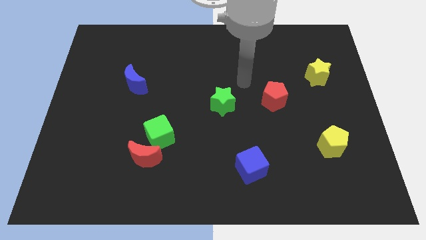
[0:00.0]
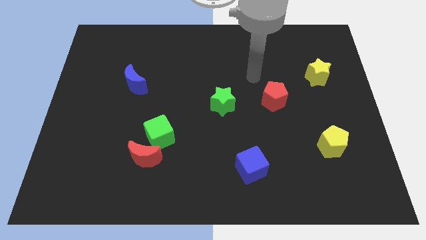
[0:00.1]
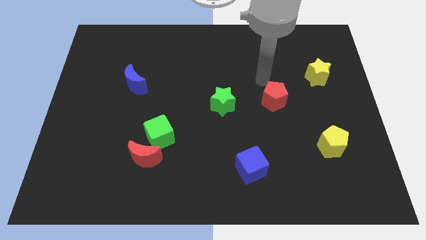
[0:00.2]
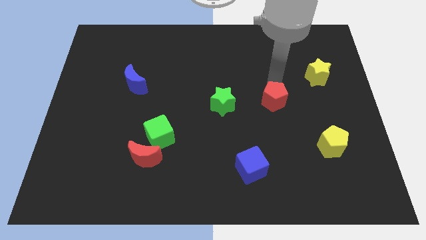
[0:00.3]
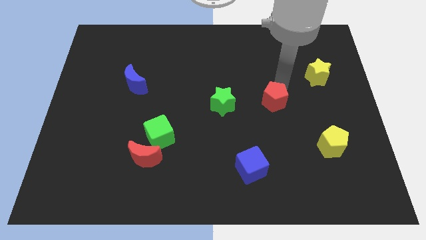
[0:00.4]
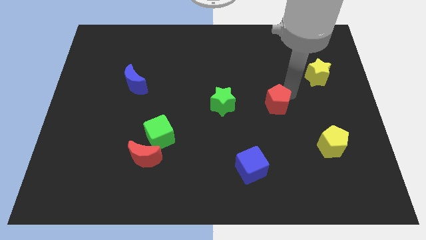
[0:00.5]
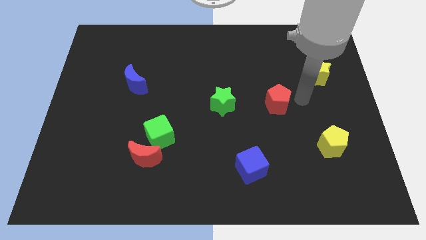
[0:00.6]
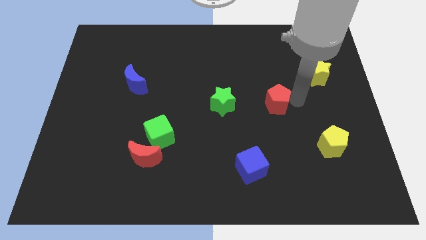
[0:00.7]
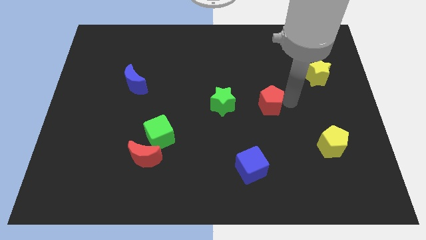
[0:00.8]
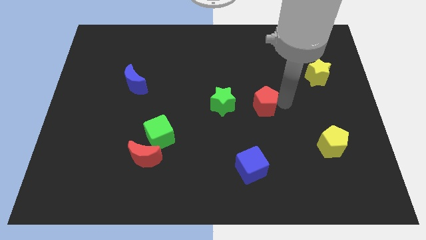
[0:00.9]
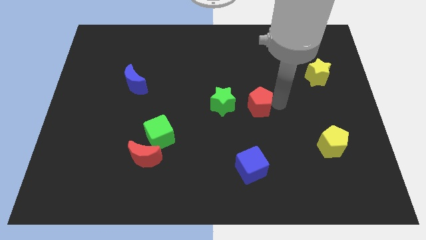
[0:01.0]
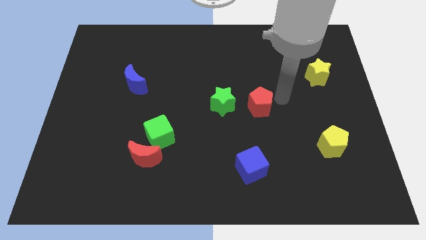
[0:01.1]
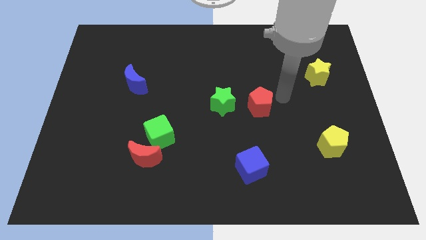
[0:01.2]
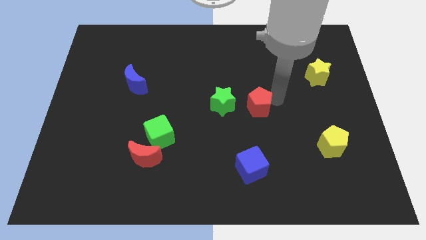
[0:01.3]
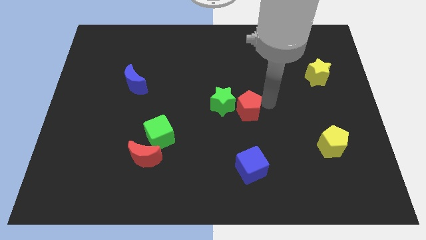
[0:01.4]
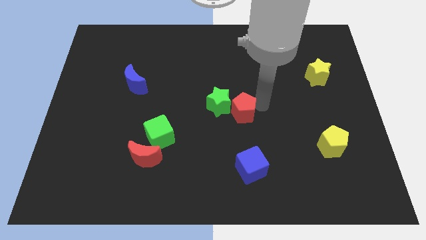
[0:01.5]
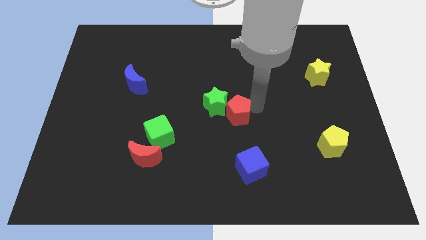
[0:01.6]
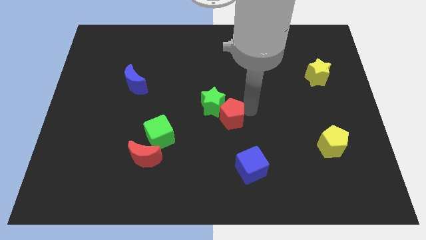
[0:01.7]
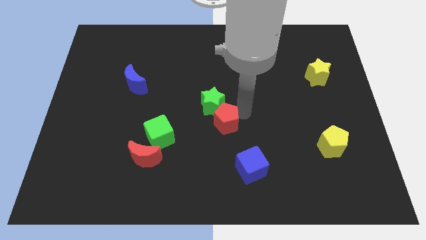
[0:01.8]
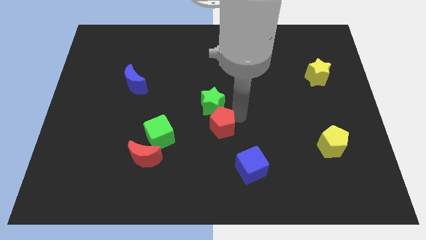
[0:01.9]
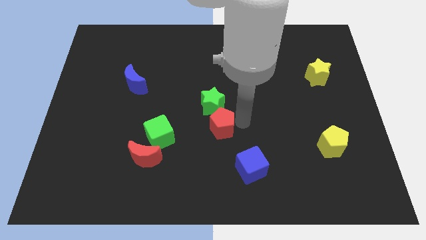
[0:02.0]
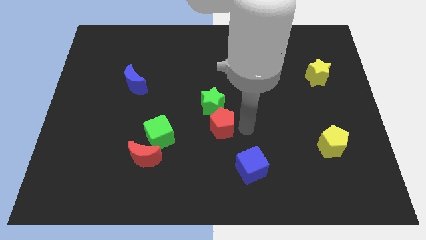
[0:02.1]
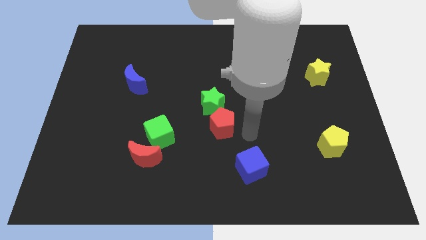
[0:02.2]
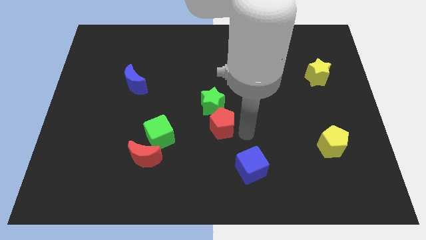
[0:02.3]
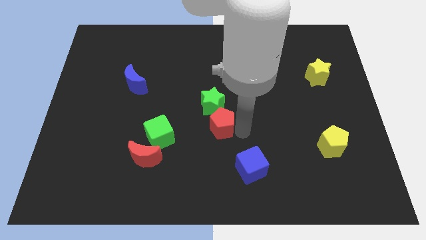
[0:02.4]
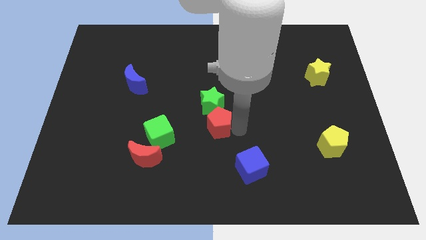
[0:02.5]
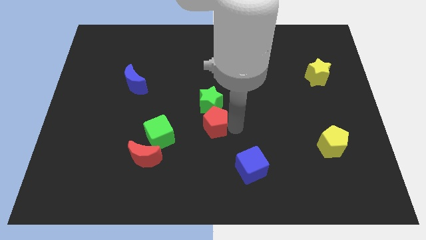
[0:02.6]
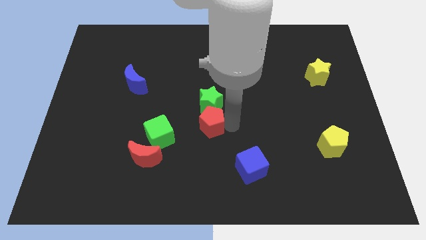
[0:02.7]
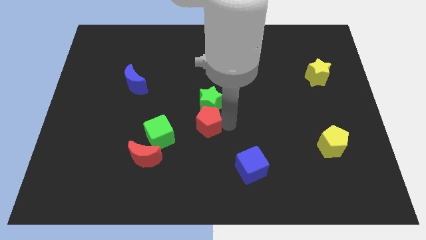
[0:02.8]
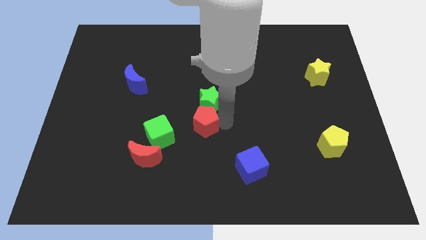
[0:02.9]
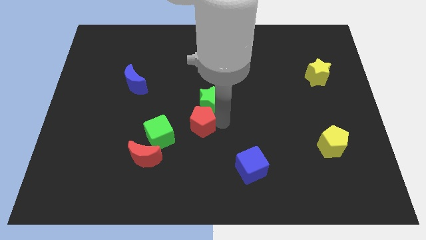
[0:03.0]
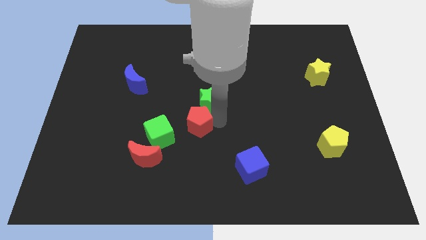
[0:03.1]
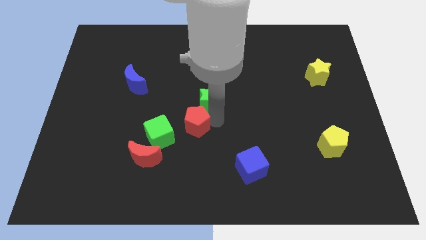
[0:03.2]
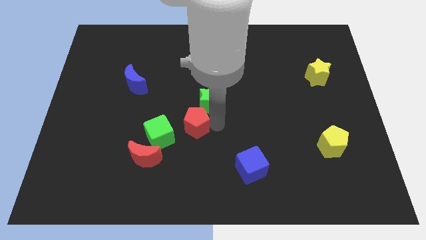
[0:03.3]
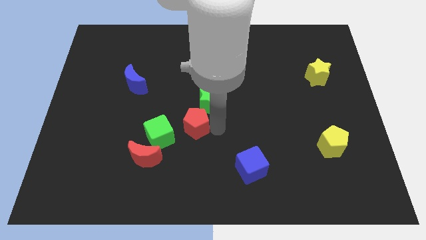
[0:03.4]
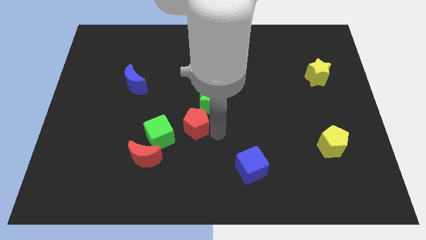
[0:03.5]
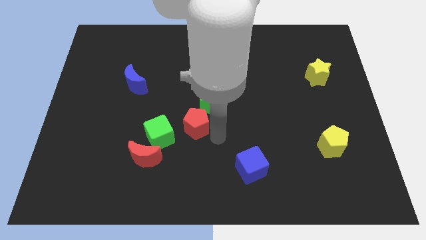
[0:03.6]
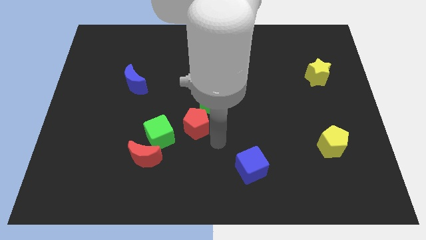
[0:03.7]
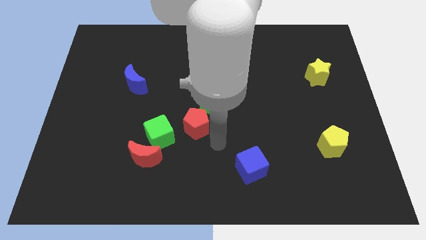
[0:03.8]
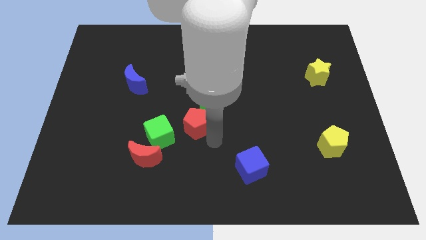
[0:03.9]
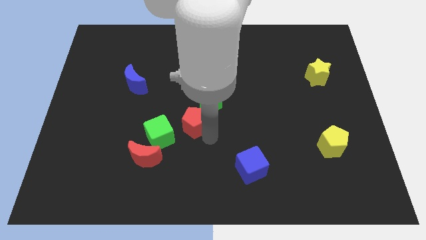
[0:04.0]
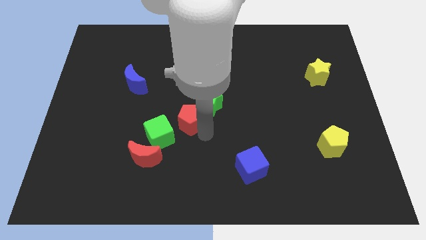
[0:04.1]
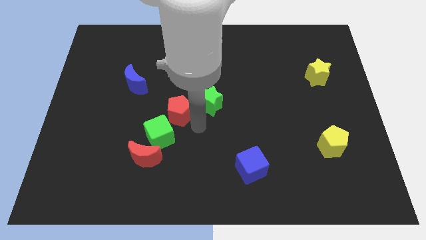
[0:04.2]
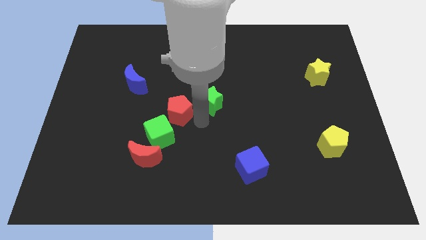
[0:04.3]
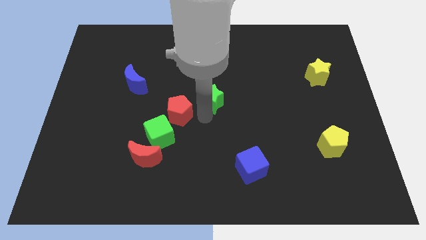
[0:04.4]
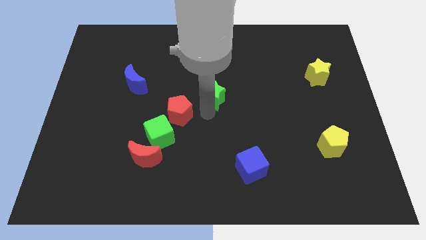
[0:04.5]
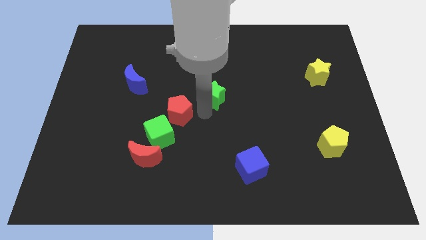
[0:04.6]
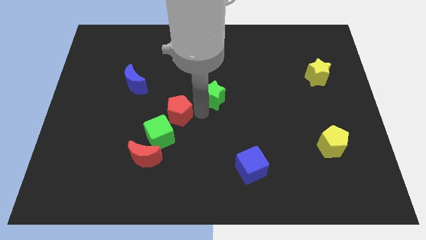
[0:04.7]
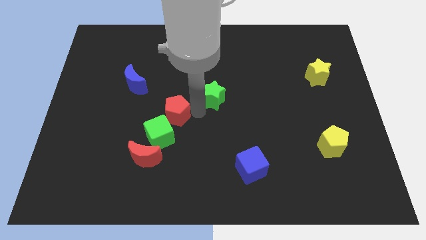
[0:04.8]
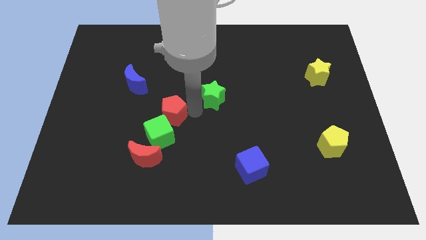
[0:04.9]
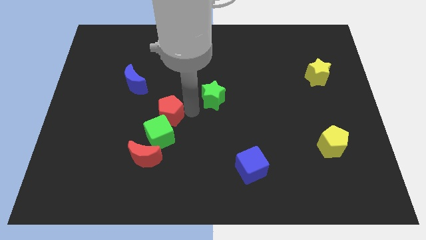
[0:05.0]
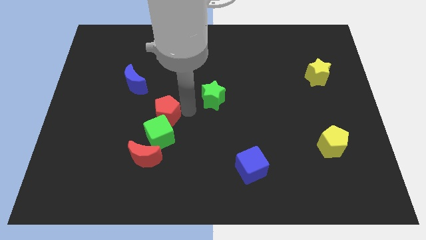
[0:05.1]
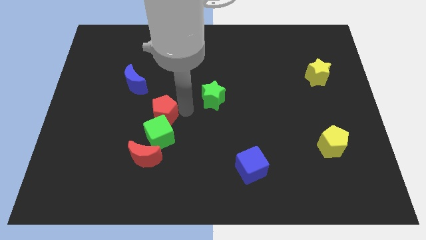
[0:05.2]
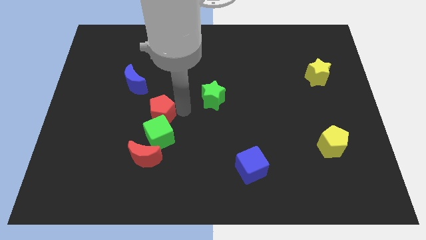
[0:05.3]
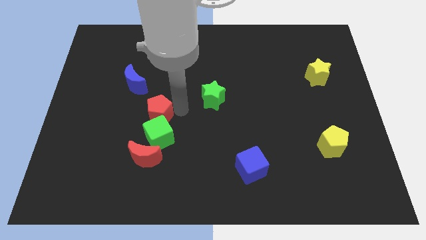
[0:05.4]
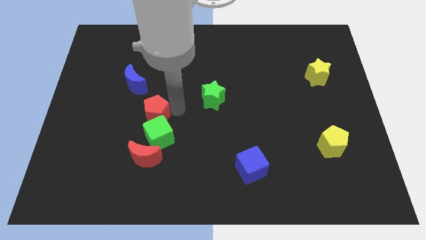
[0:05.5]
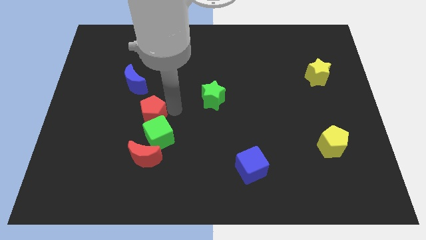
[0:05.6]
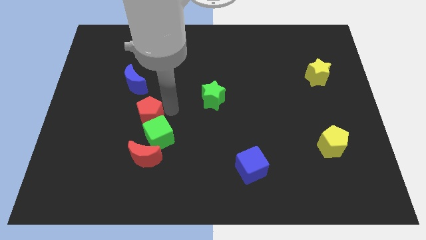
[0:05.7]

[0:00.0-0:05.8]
put the red pentagon to the bottom side of the blue moon

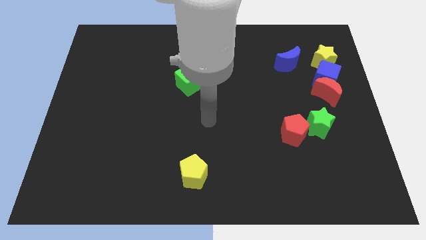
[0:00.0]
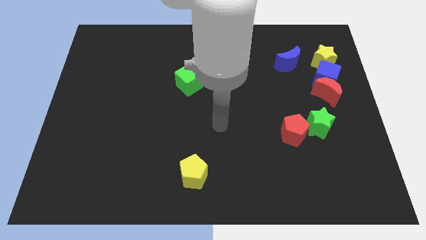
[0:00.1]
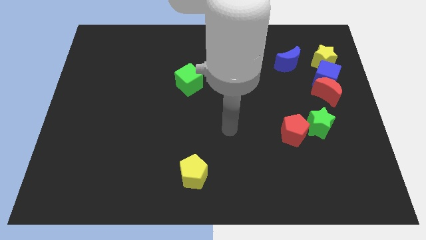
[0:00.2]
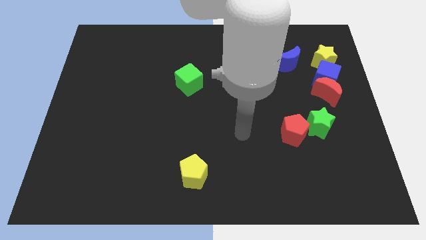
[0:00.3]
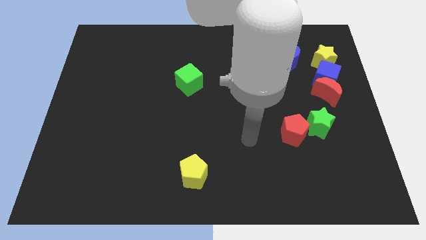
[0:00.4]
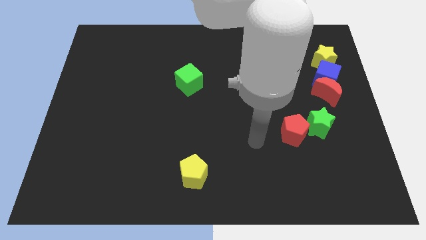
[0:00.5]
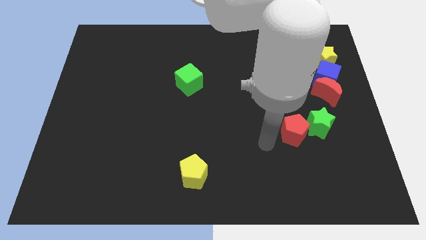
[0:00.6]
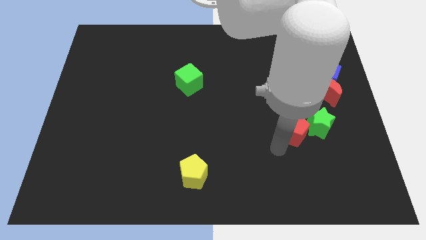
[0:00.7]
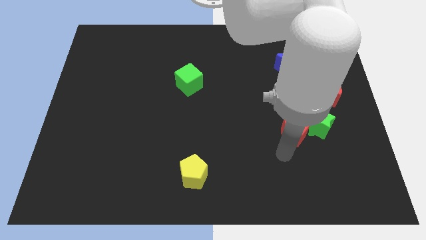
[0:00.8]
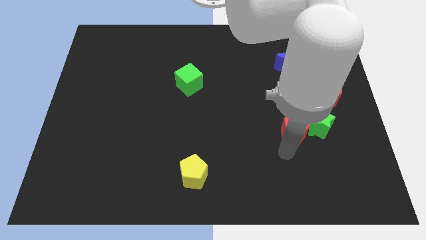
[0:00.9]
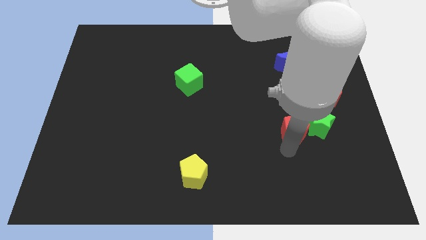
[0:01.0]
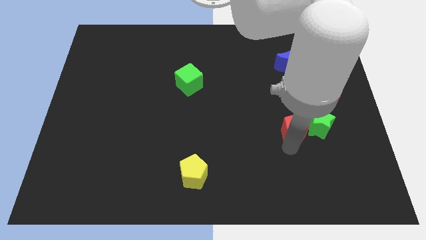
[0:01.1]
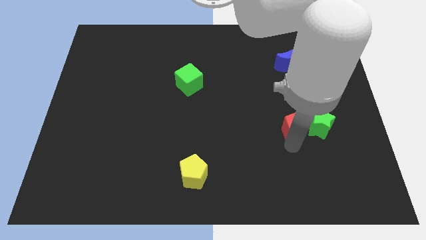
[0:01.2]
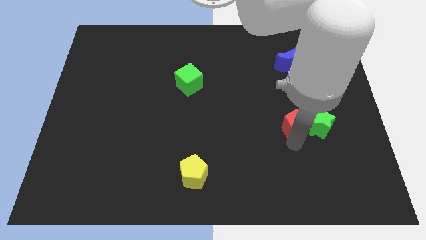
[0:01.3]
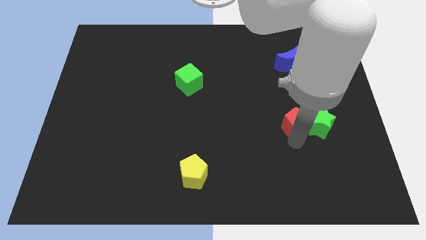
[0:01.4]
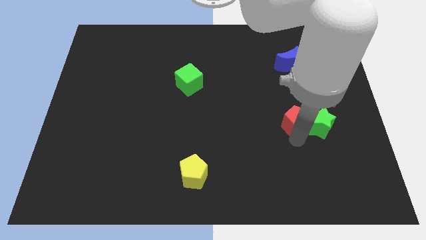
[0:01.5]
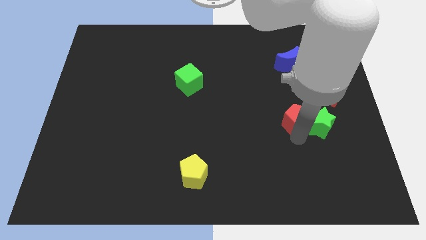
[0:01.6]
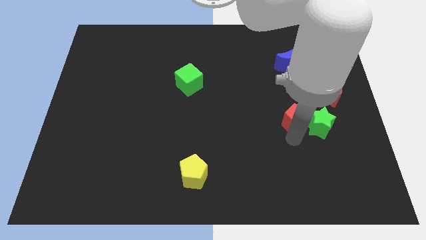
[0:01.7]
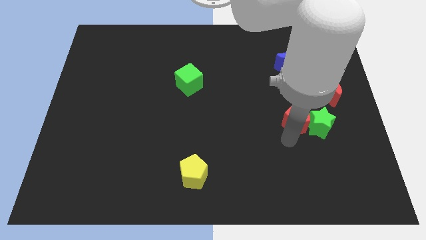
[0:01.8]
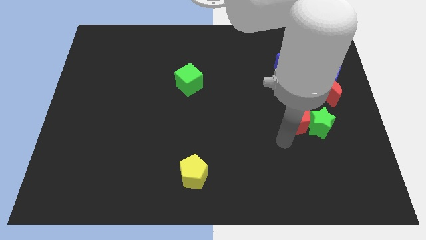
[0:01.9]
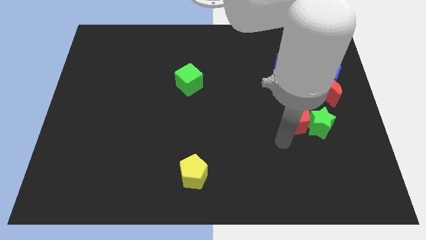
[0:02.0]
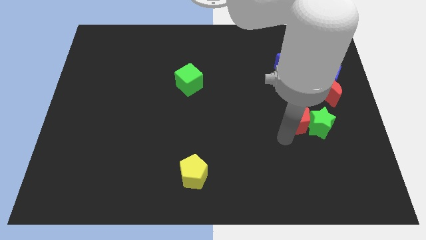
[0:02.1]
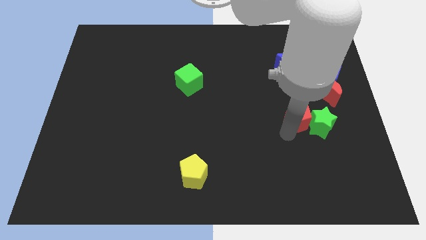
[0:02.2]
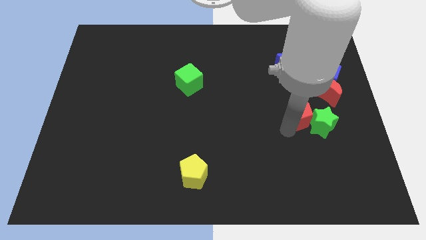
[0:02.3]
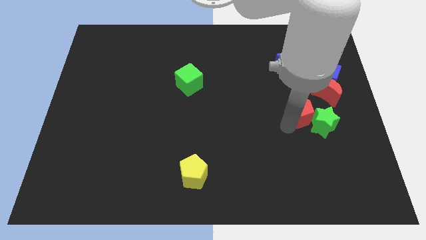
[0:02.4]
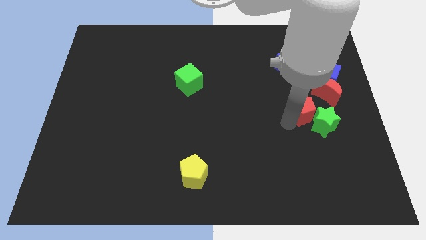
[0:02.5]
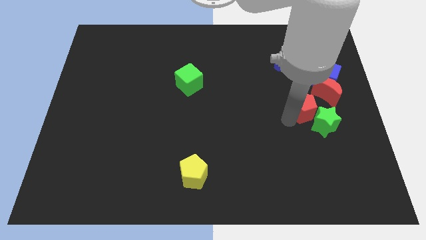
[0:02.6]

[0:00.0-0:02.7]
move the red pentagon above the green star
